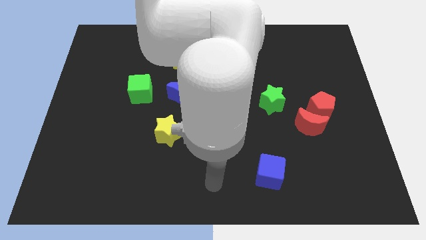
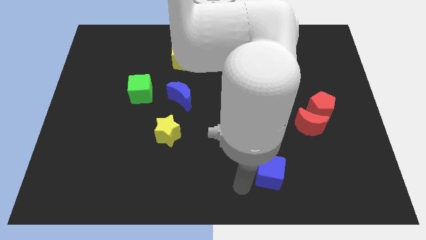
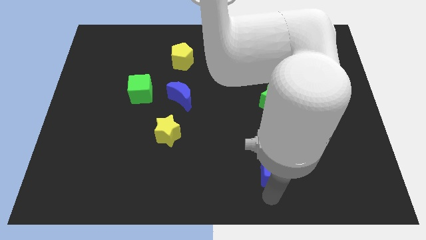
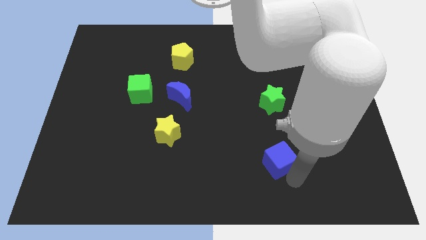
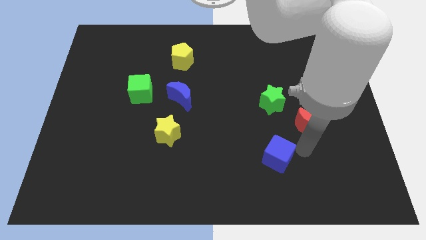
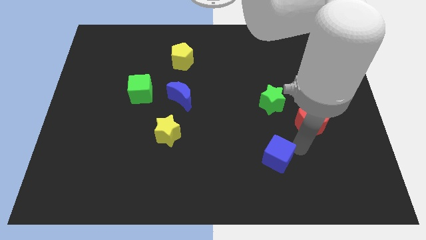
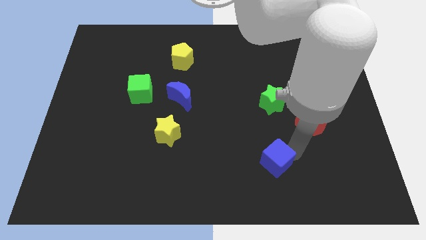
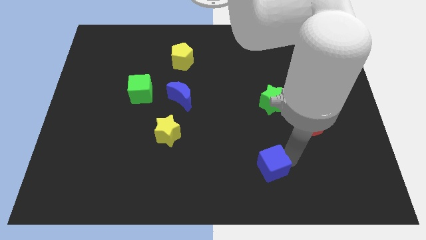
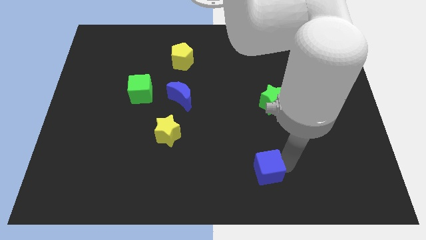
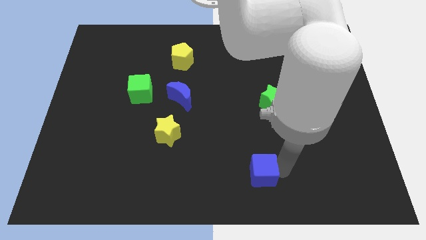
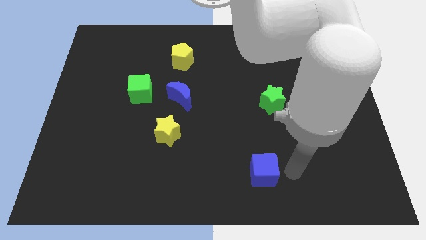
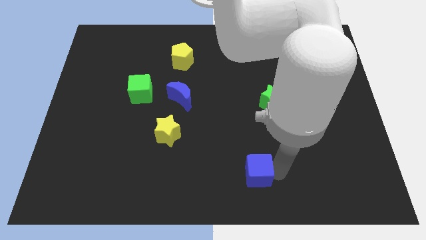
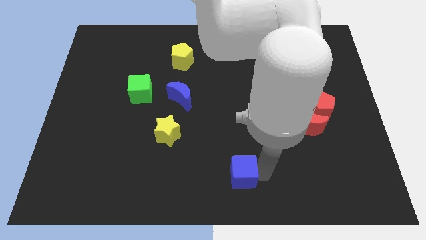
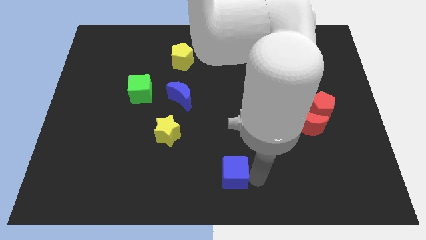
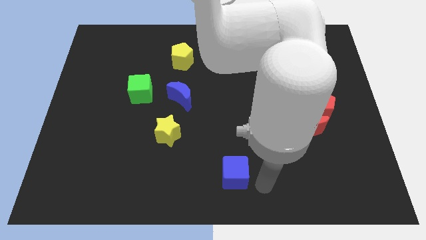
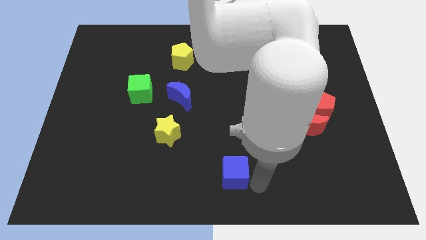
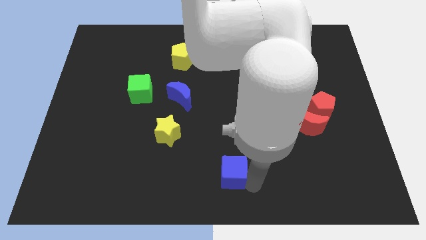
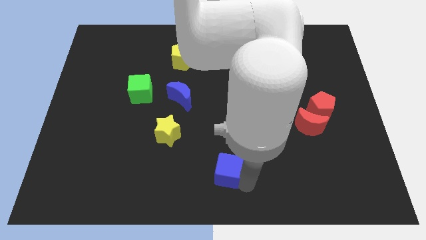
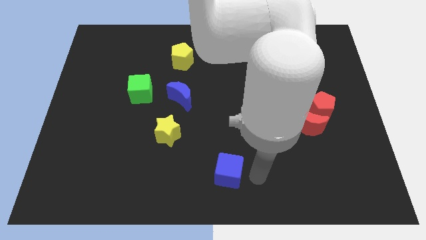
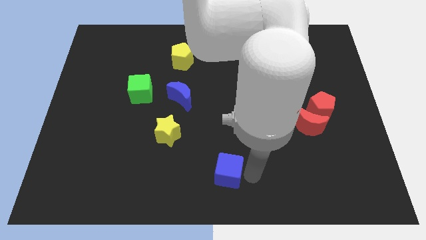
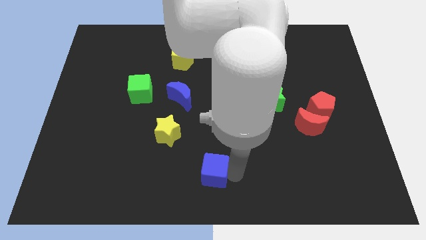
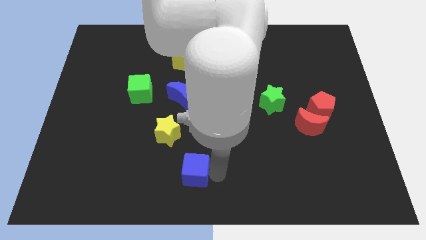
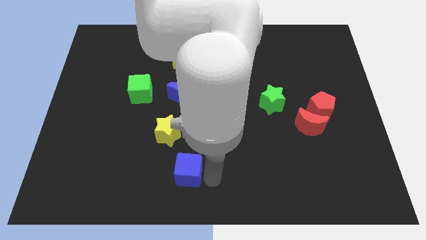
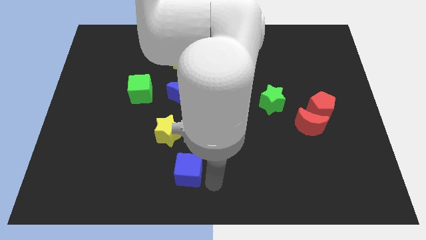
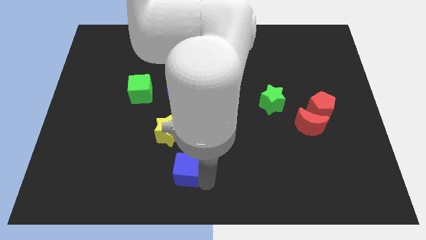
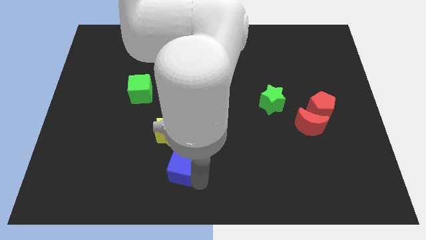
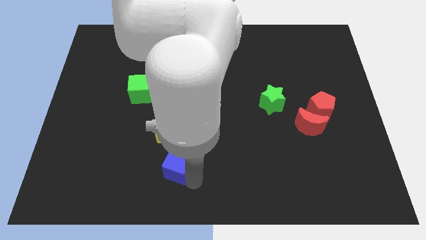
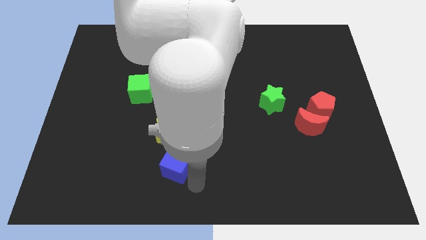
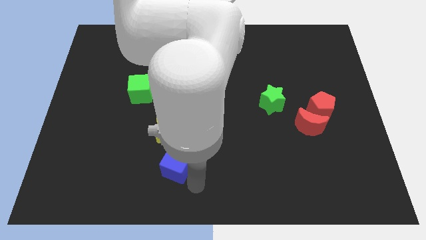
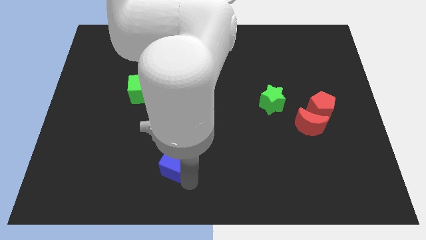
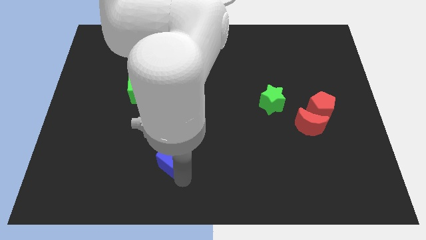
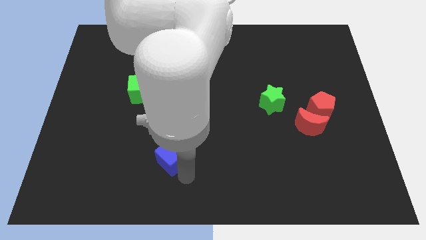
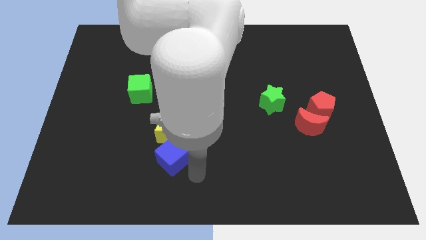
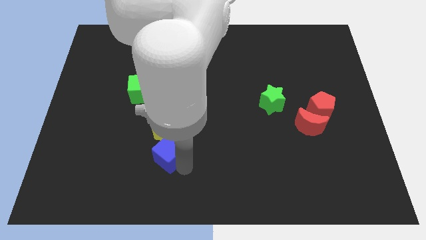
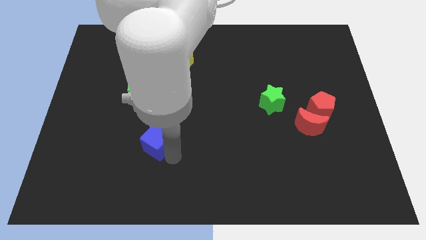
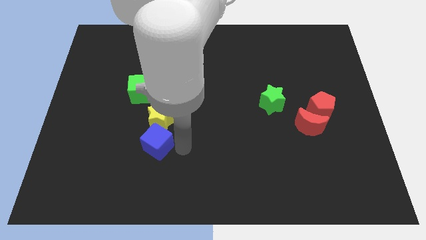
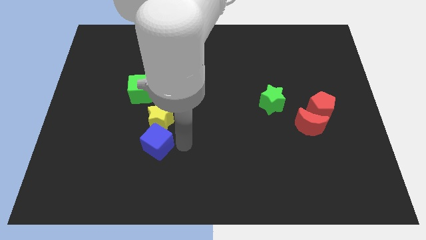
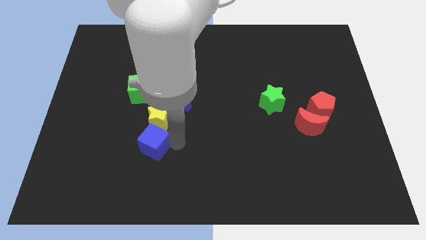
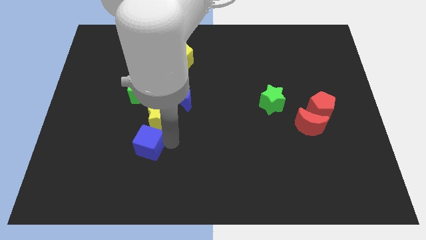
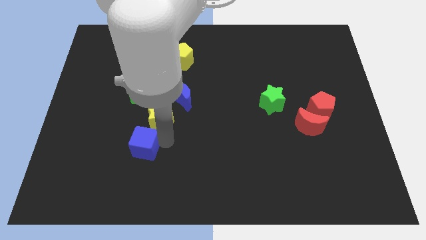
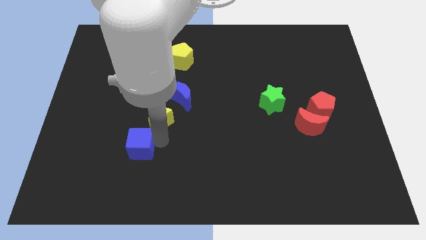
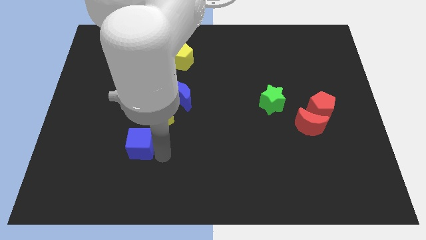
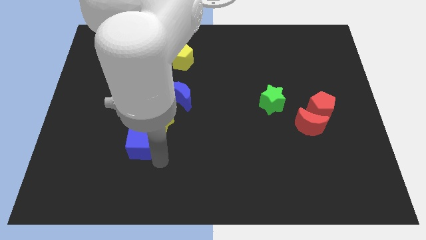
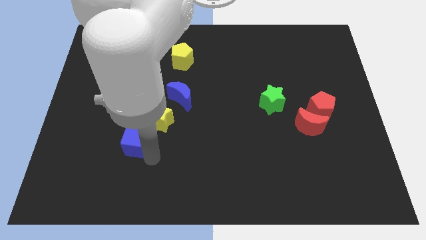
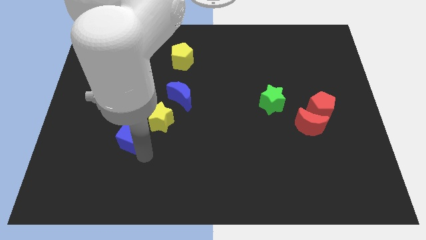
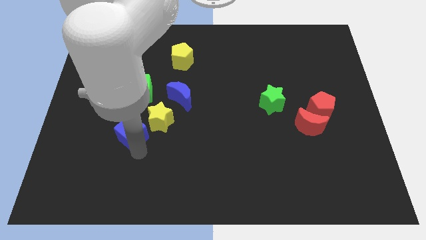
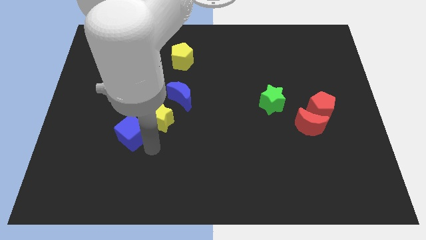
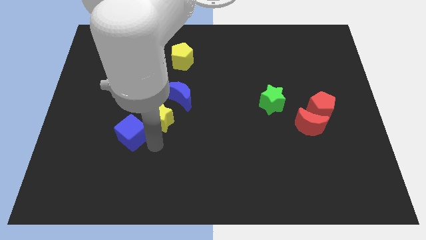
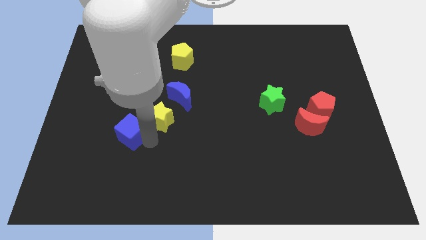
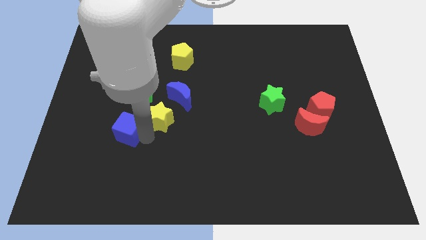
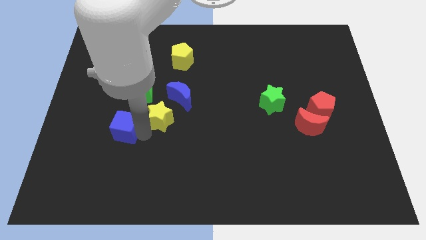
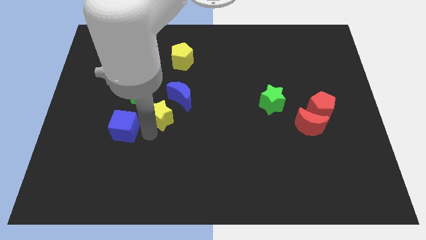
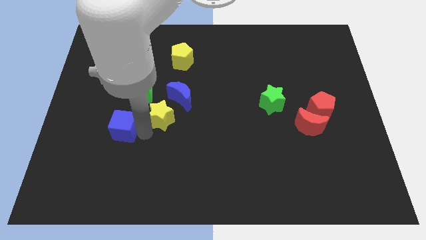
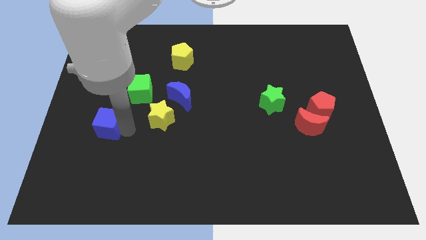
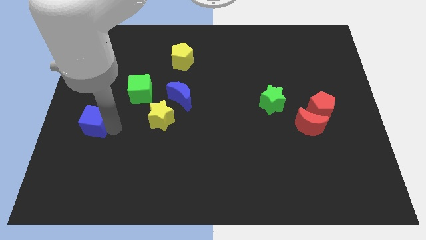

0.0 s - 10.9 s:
put the blue cube to the left side

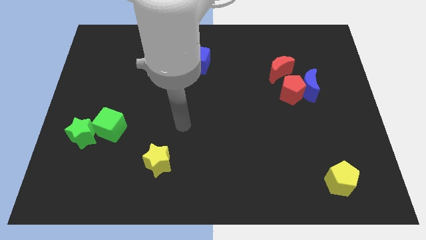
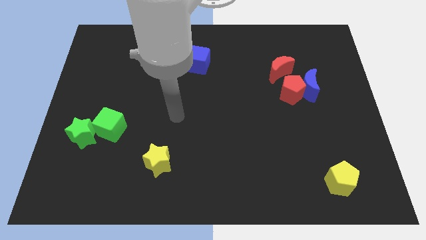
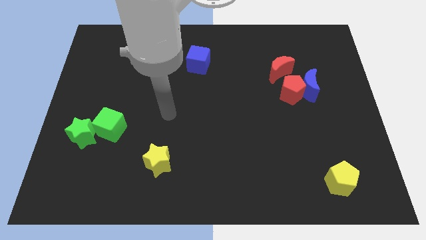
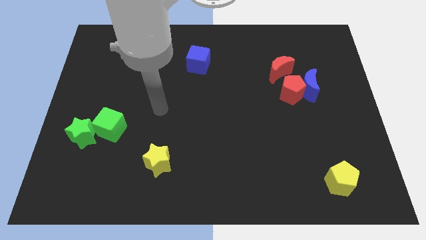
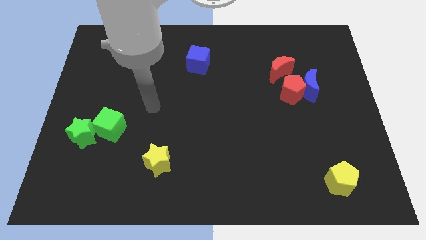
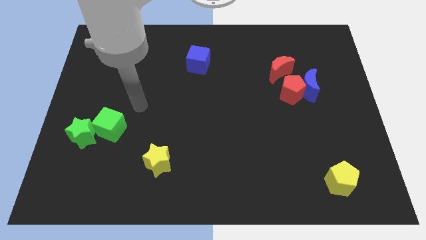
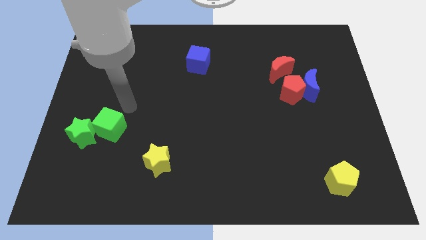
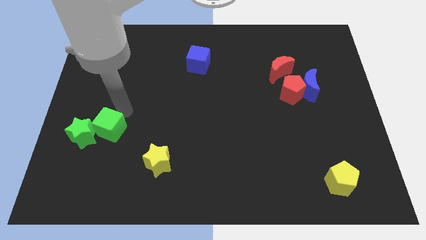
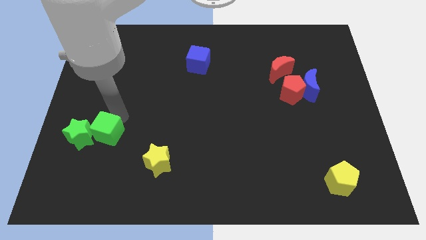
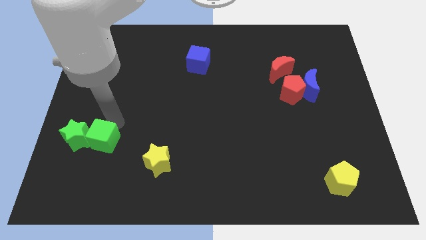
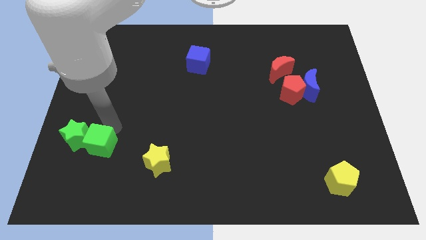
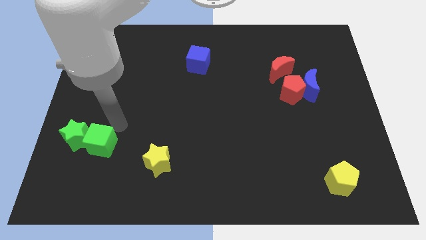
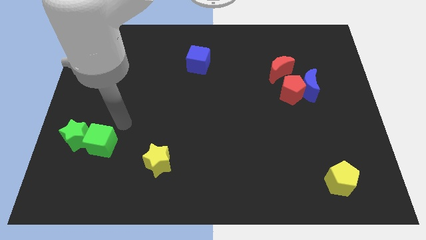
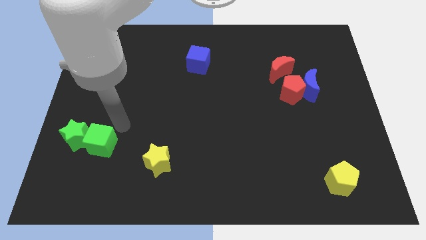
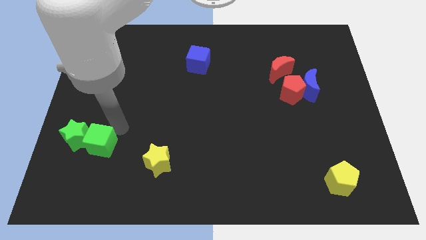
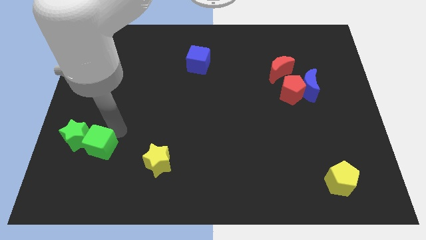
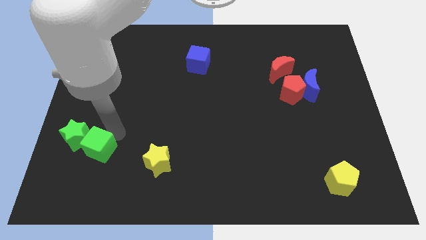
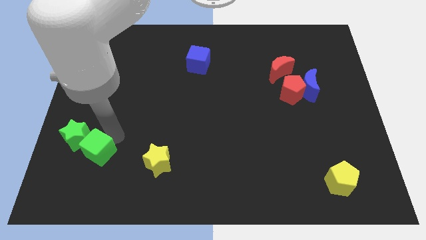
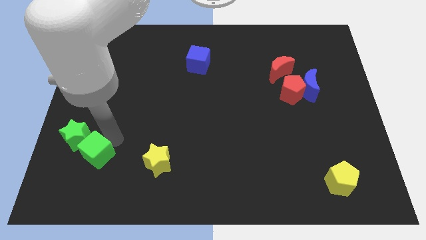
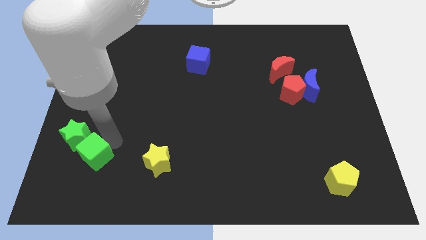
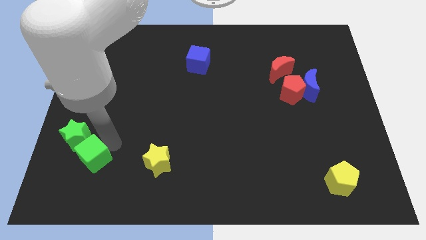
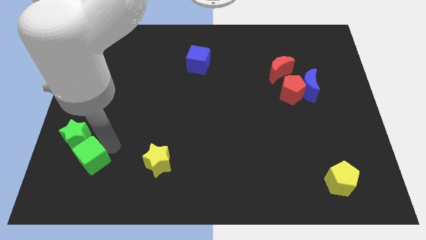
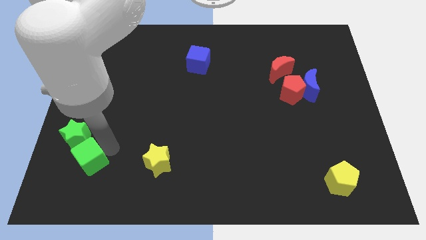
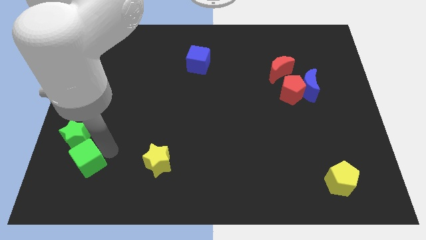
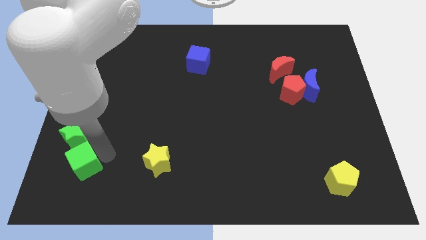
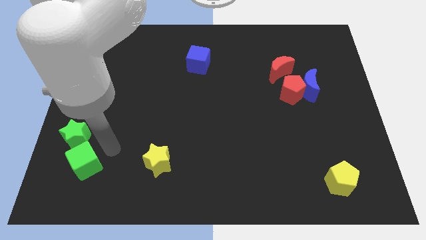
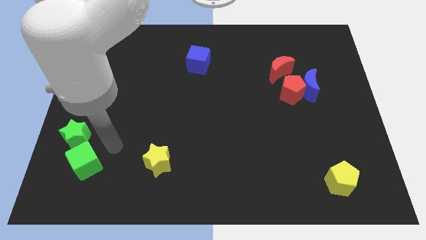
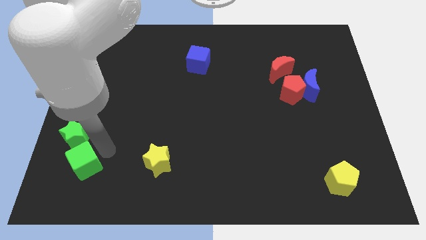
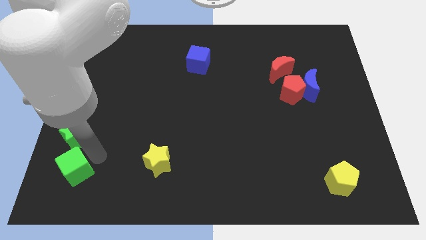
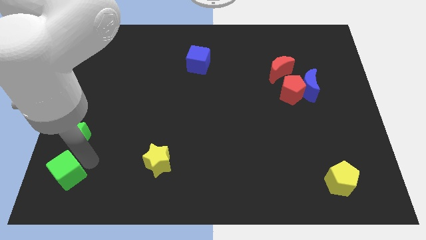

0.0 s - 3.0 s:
put the green cube to the bottom left of the board
